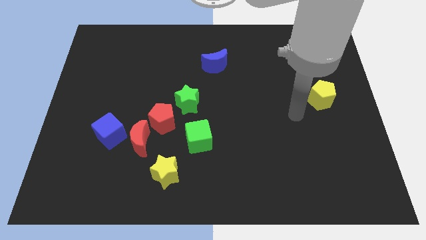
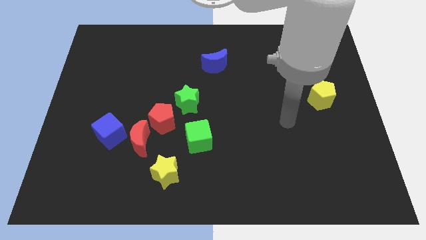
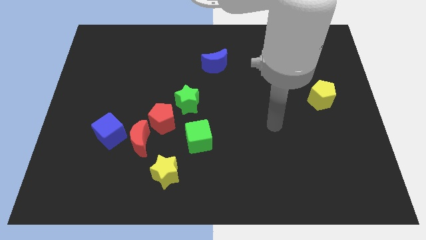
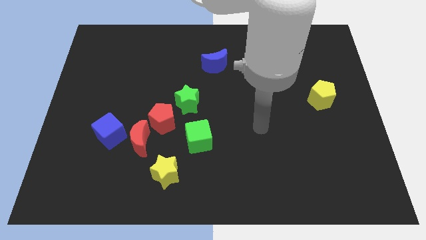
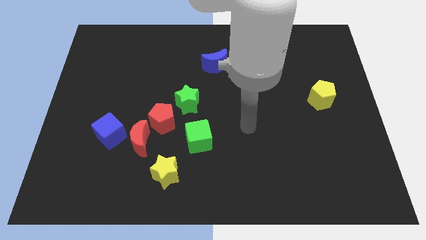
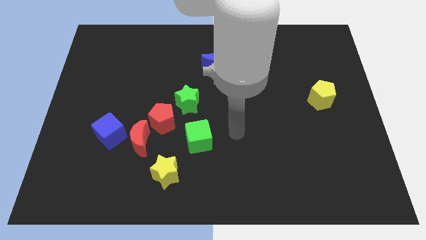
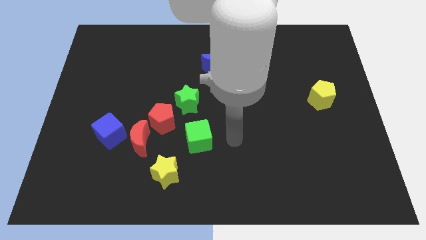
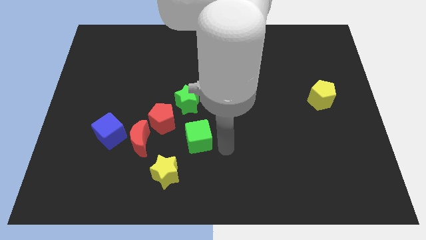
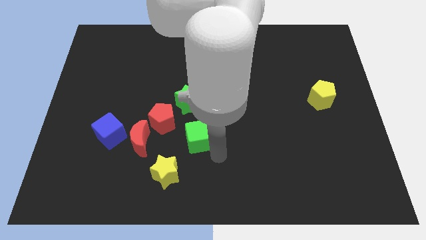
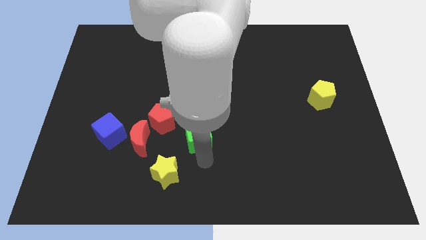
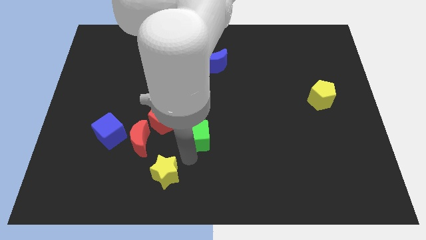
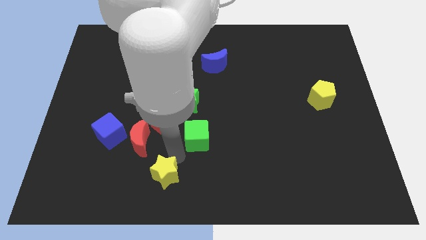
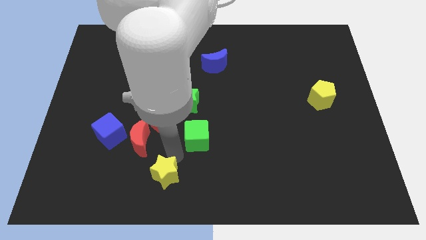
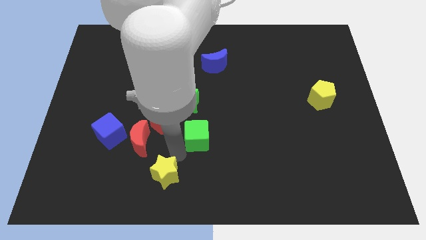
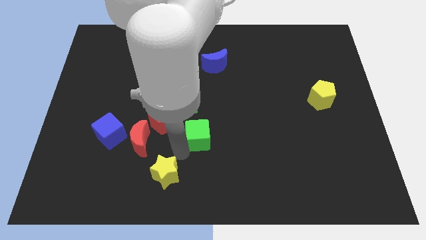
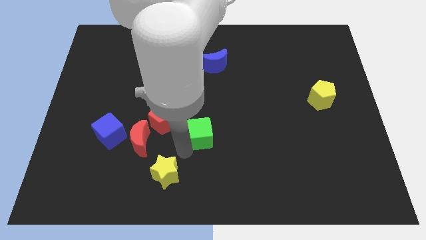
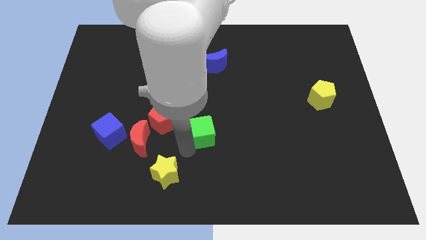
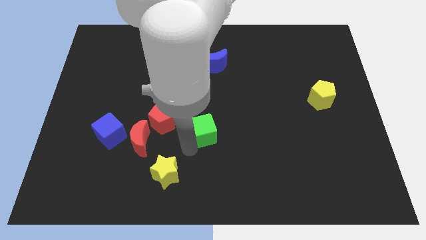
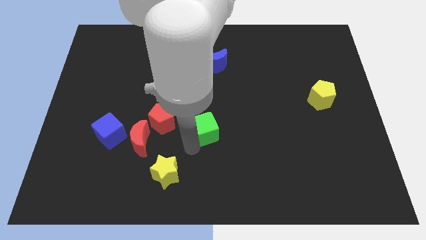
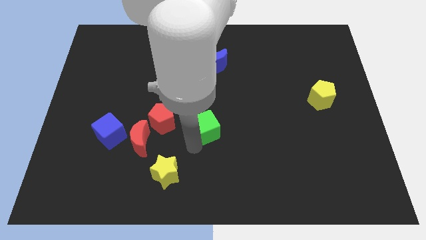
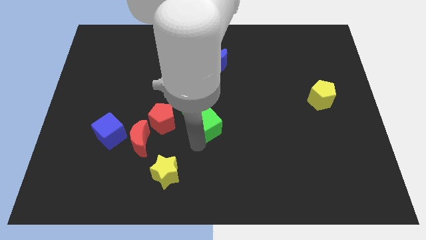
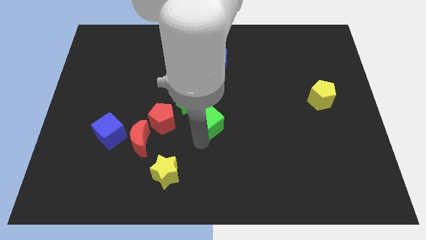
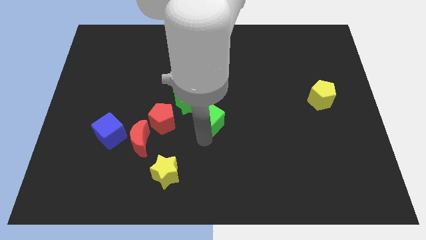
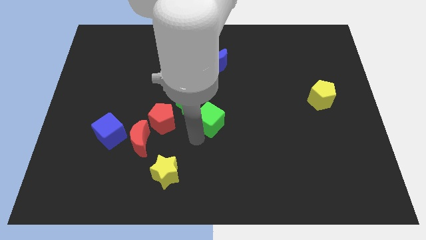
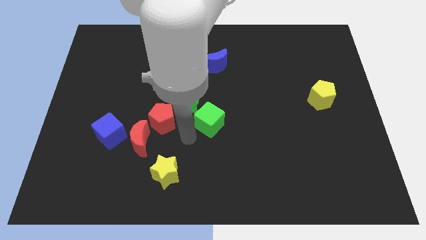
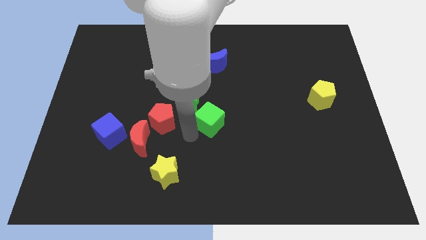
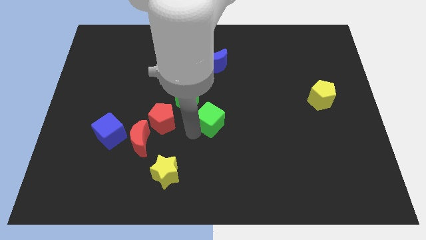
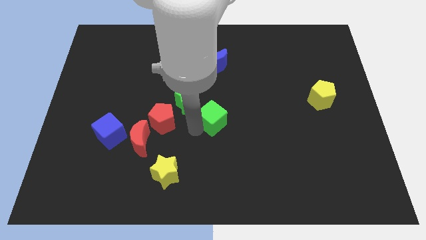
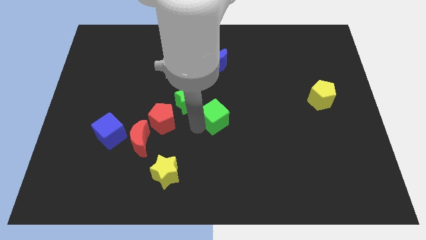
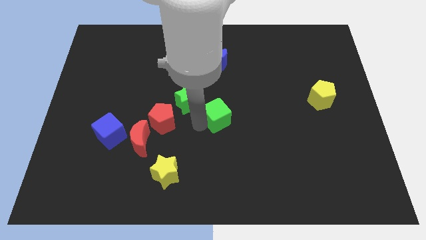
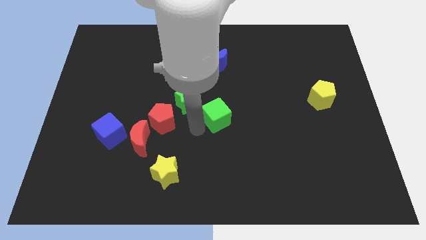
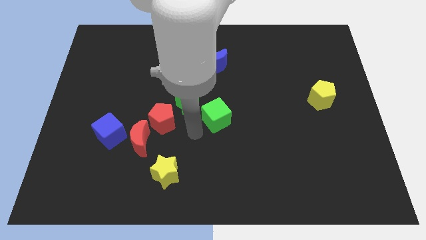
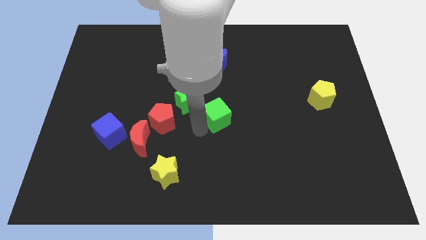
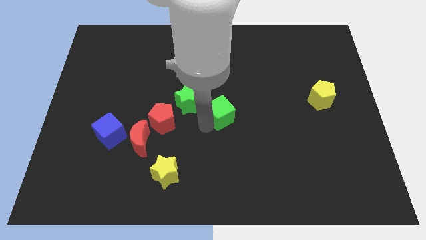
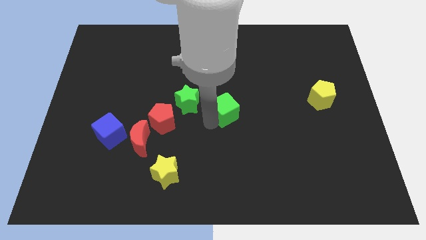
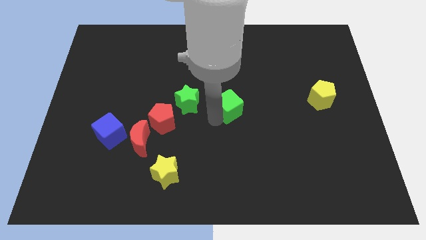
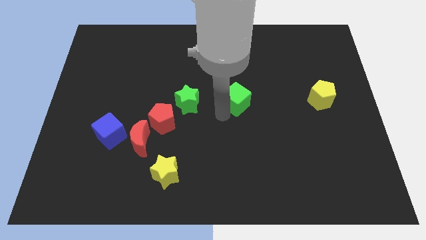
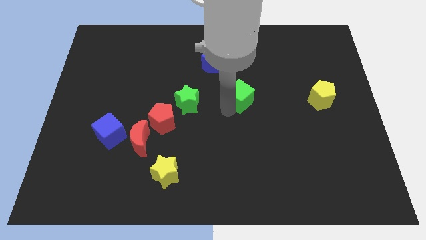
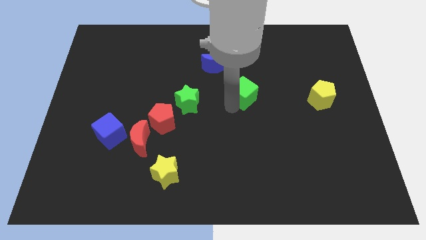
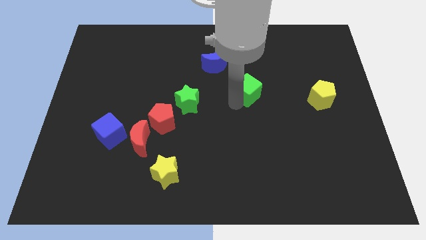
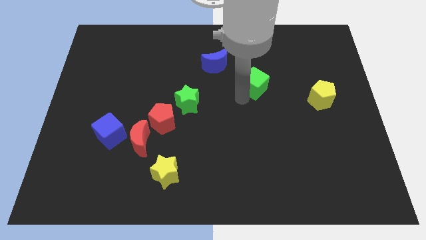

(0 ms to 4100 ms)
push the green cube upwards and to the right diagonally

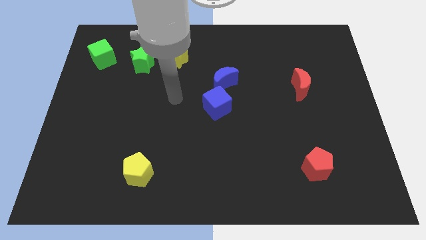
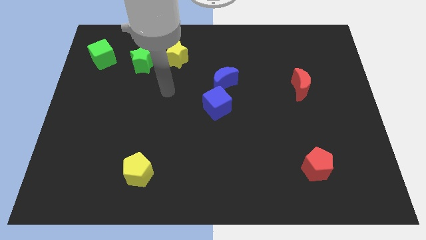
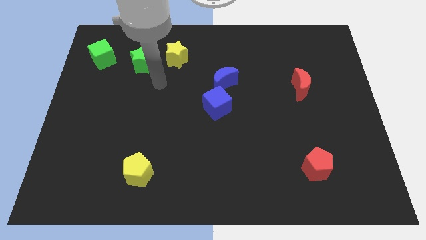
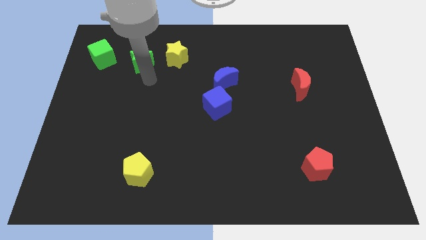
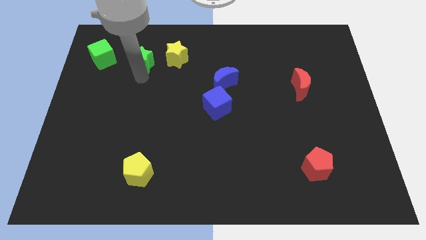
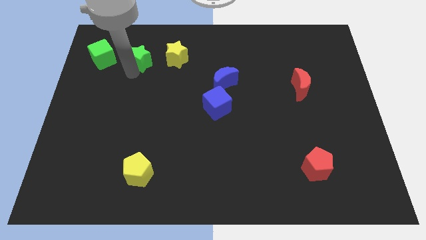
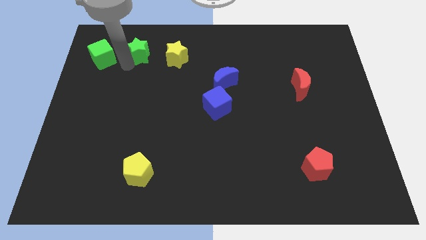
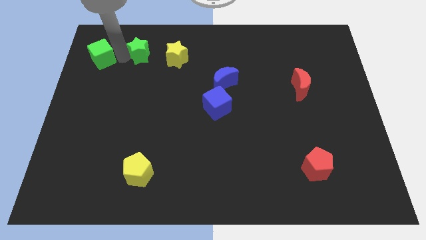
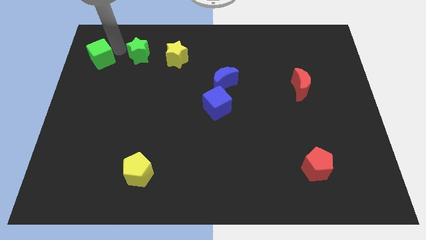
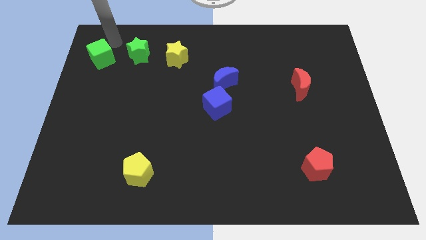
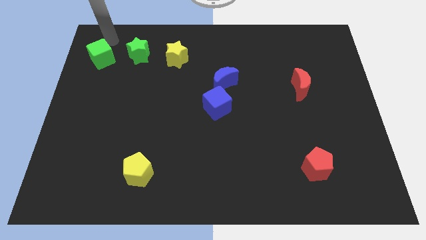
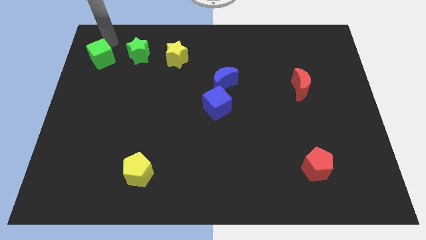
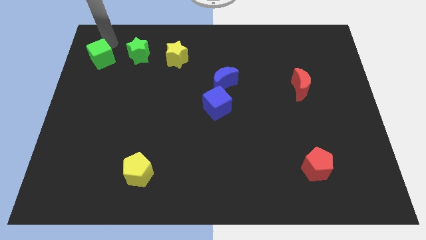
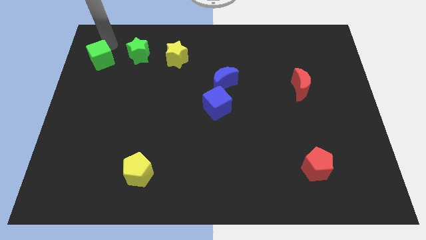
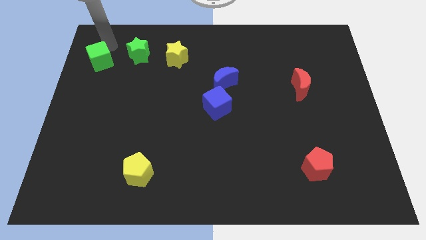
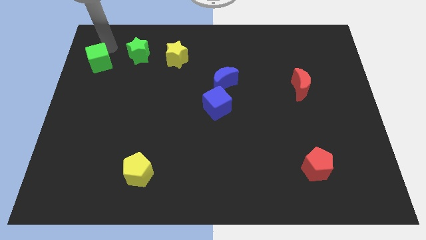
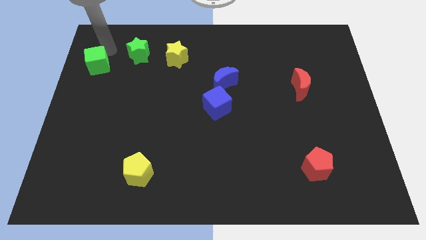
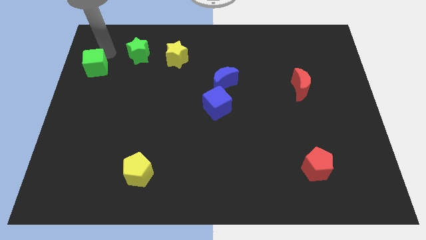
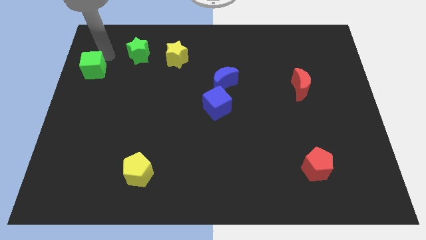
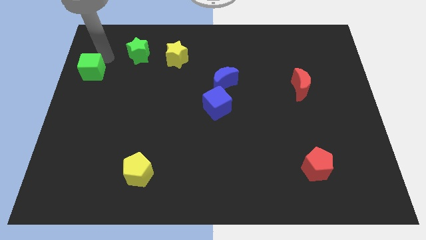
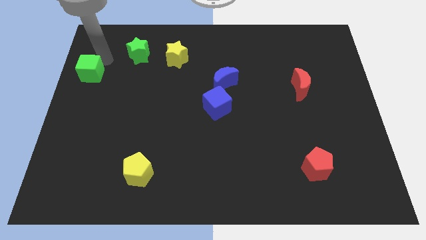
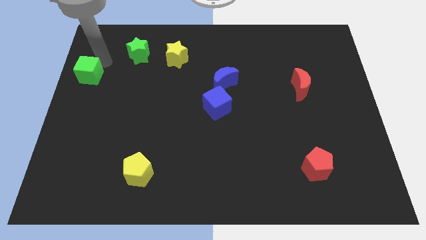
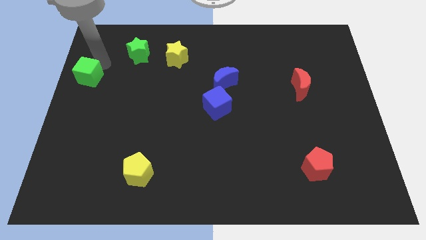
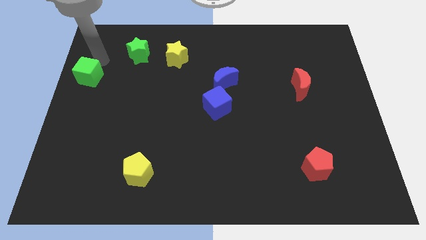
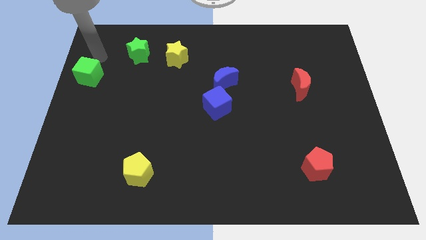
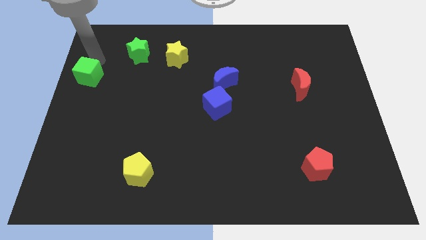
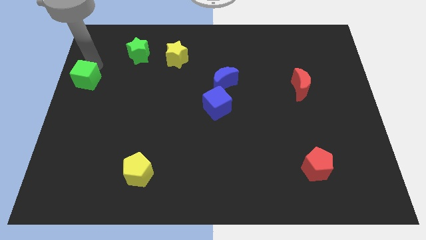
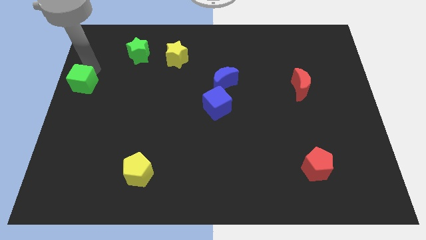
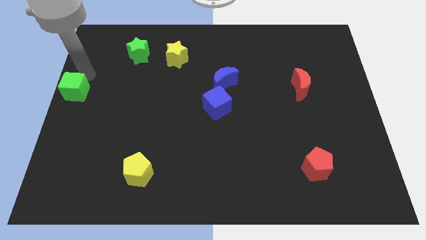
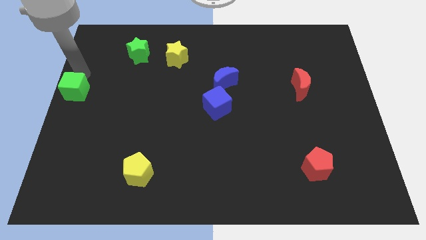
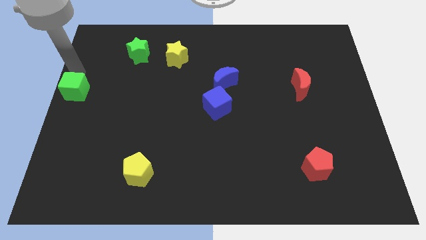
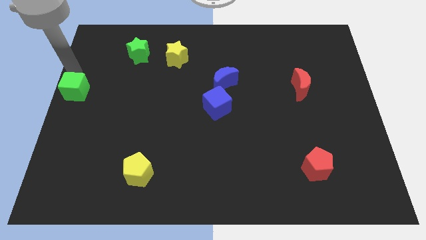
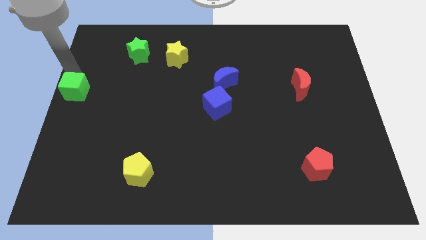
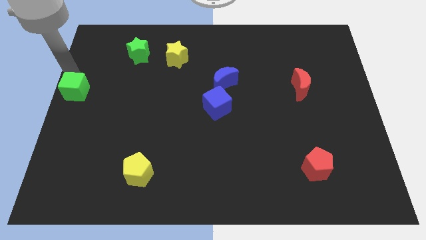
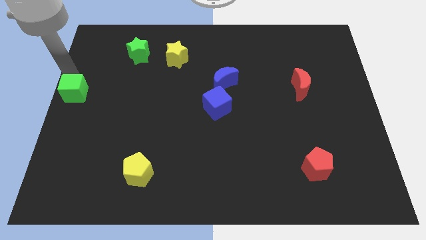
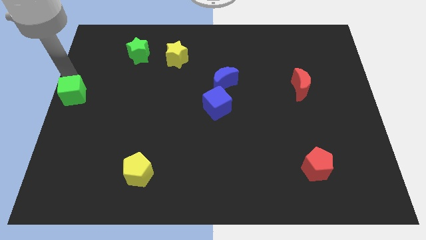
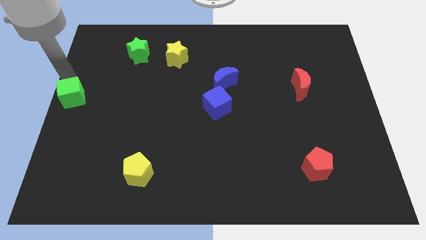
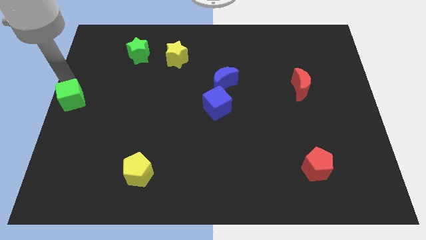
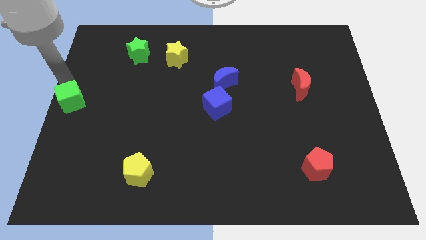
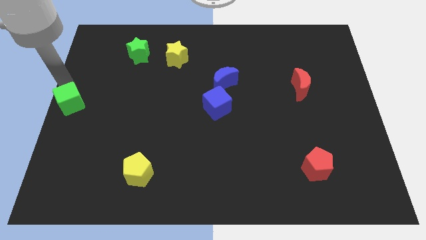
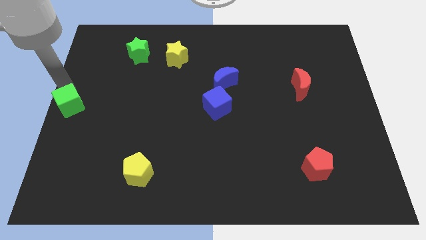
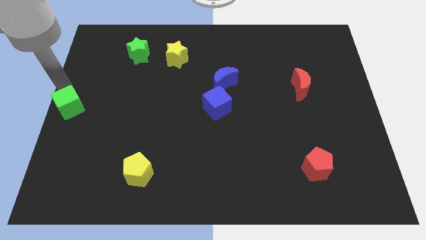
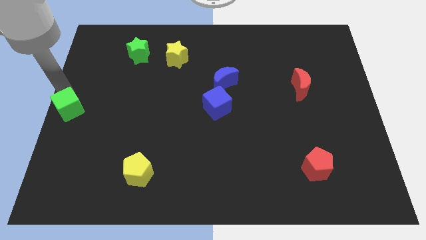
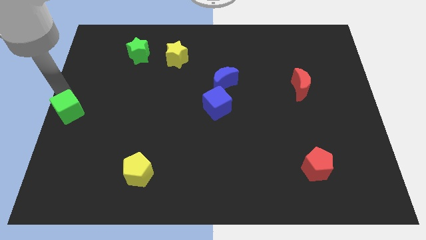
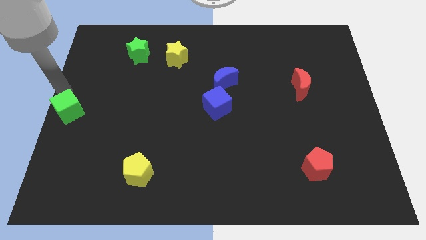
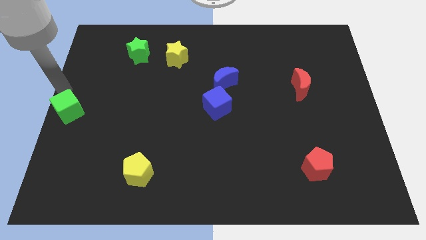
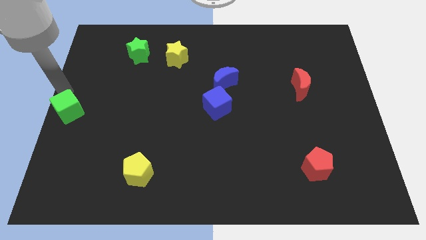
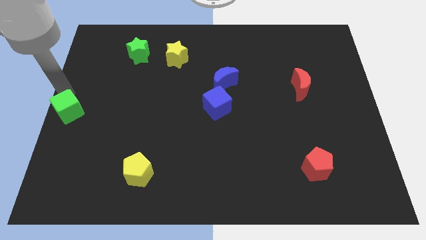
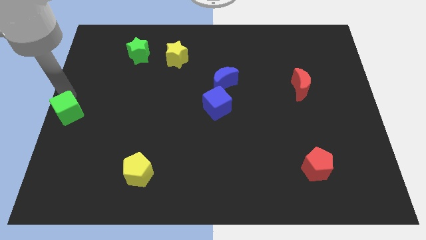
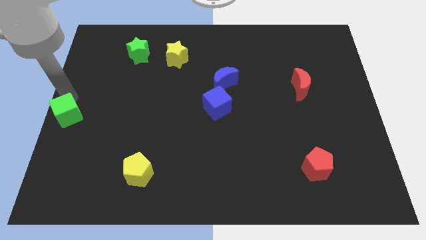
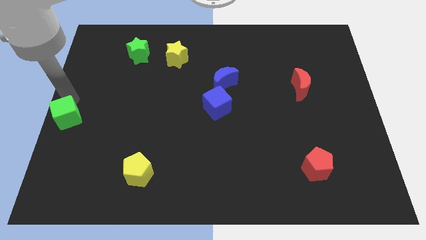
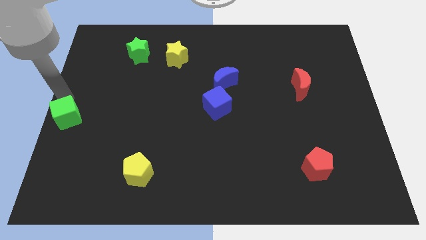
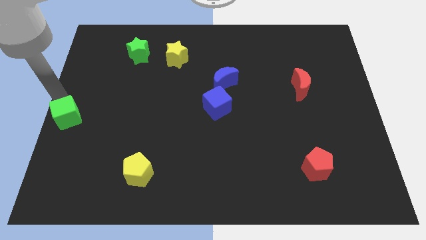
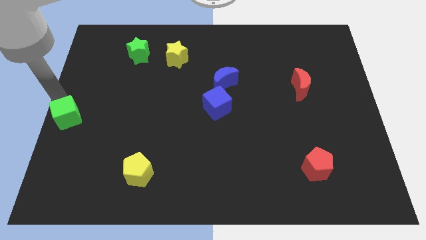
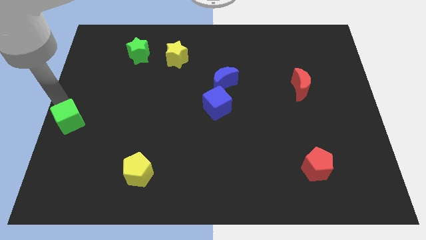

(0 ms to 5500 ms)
push the green cube downwards
